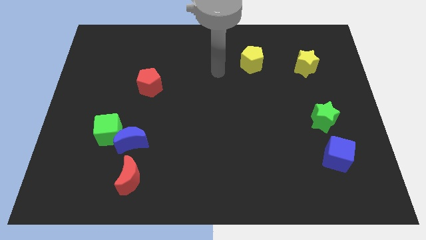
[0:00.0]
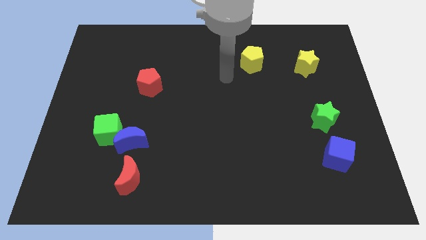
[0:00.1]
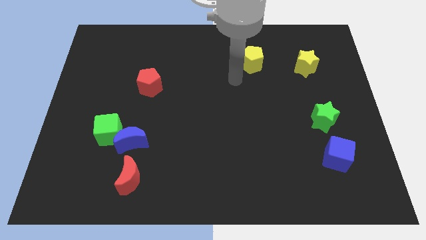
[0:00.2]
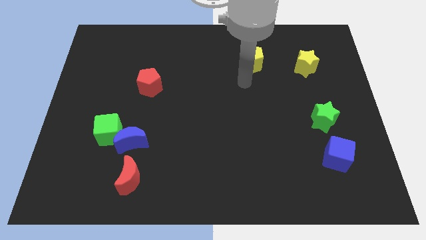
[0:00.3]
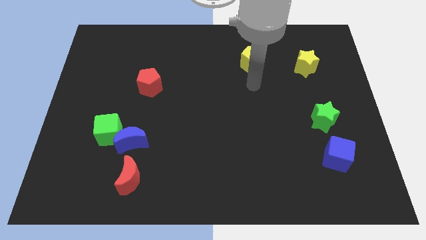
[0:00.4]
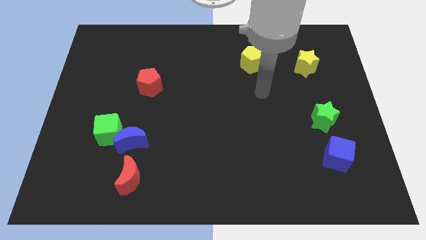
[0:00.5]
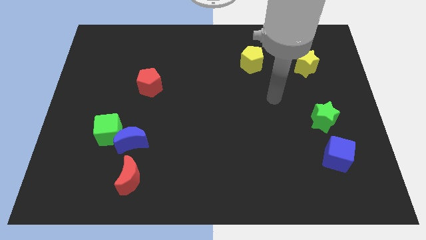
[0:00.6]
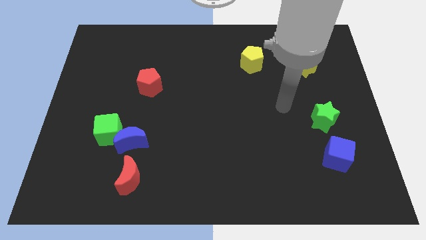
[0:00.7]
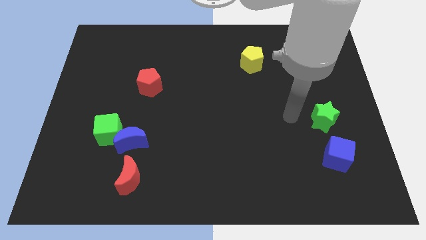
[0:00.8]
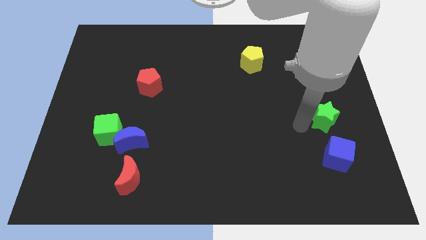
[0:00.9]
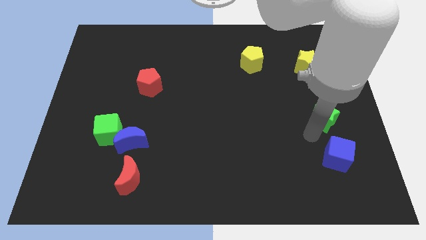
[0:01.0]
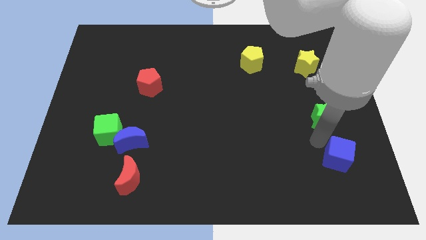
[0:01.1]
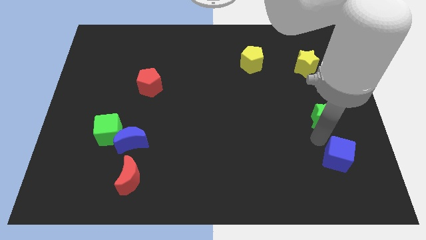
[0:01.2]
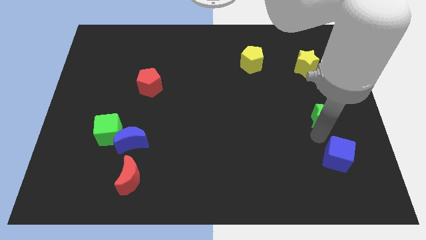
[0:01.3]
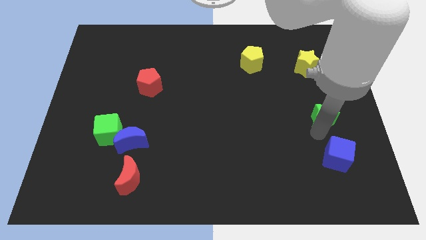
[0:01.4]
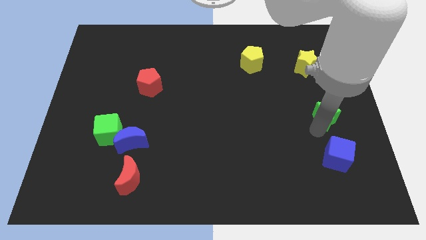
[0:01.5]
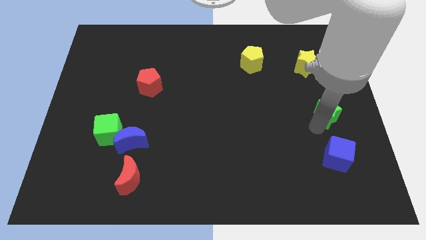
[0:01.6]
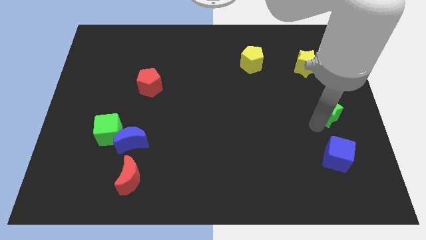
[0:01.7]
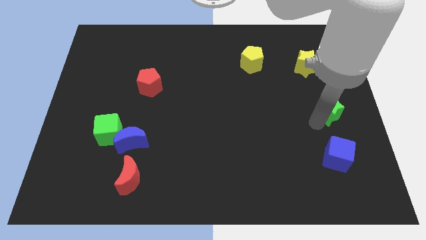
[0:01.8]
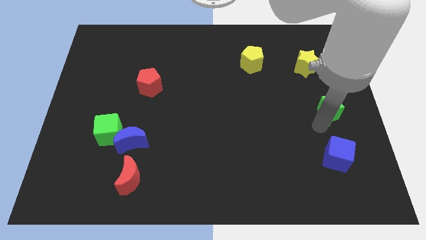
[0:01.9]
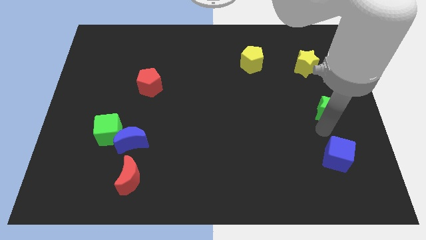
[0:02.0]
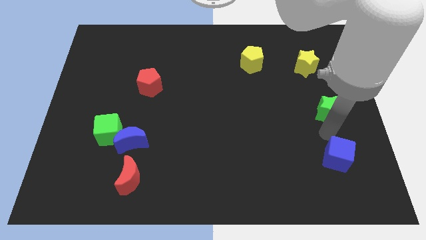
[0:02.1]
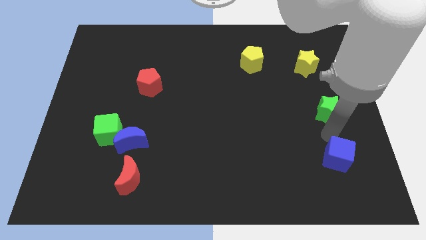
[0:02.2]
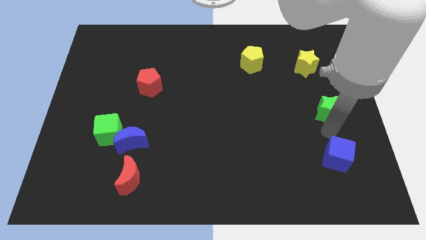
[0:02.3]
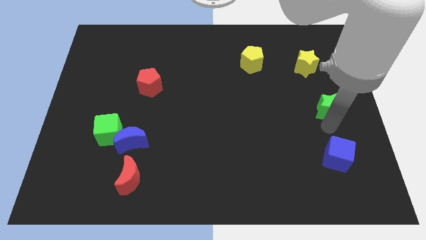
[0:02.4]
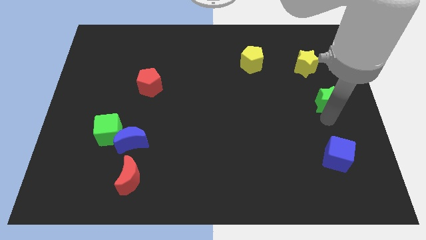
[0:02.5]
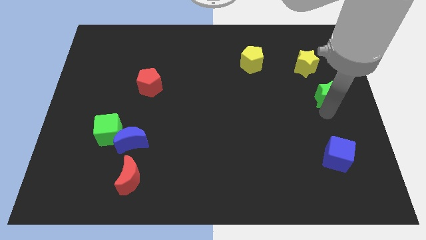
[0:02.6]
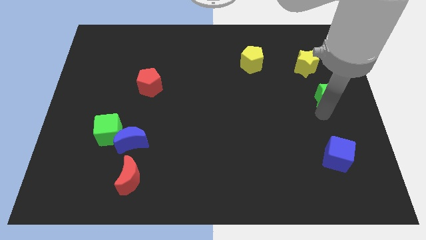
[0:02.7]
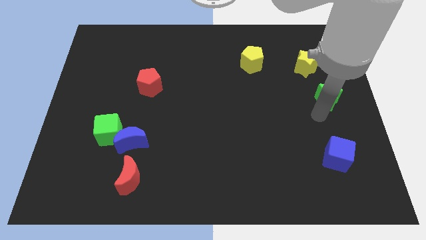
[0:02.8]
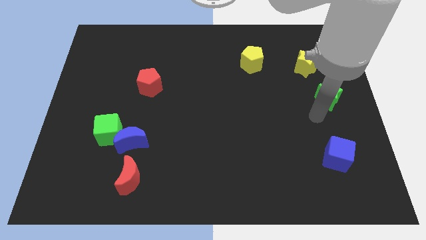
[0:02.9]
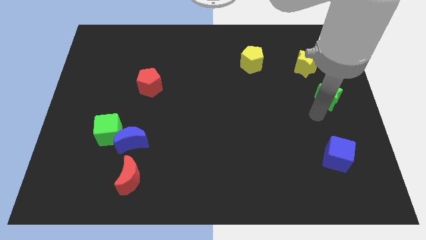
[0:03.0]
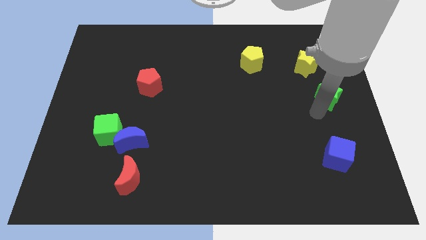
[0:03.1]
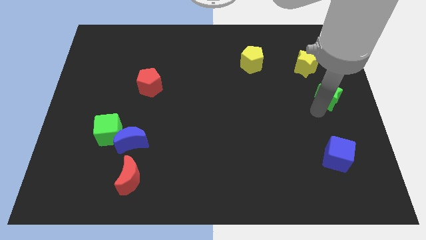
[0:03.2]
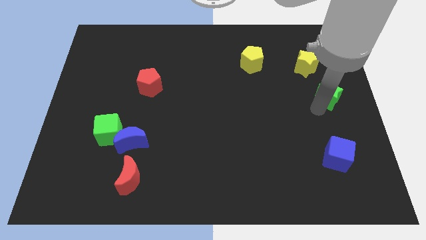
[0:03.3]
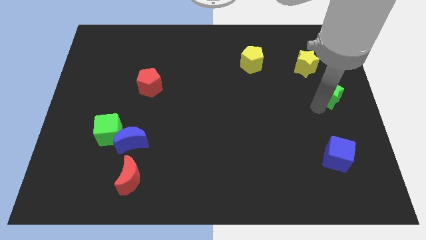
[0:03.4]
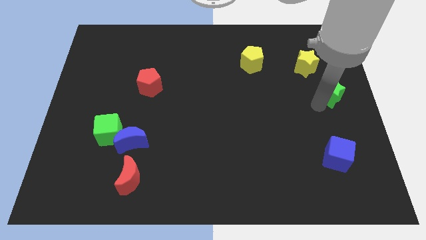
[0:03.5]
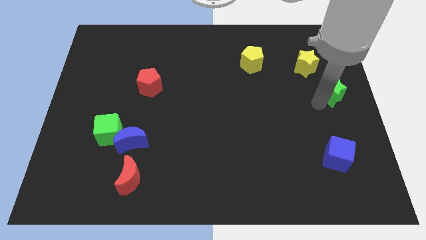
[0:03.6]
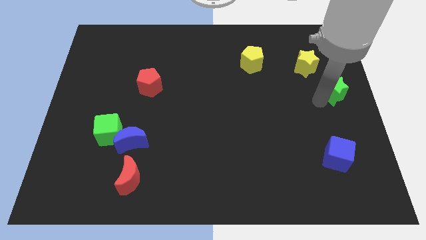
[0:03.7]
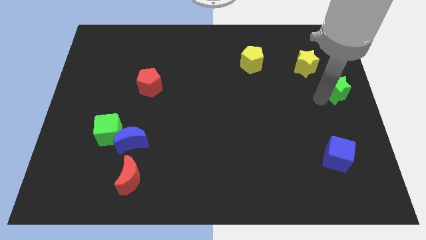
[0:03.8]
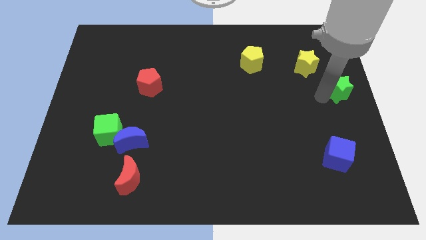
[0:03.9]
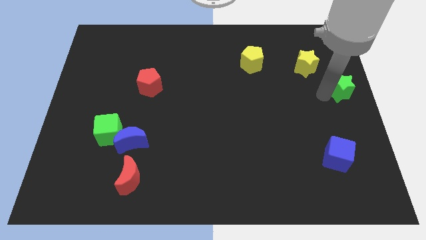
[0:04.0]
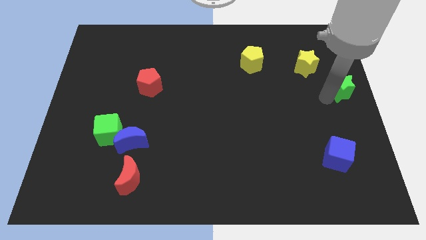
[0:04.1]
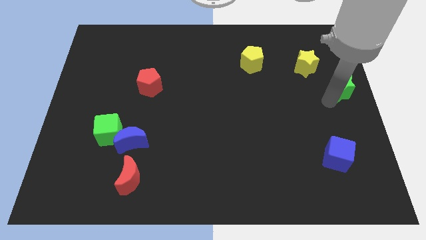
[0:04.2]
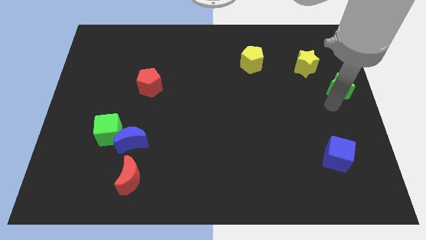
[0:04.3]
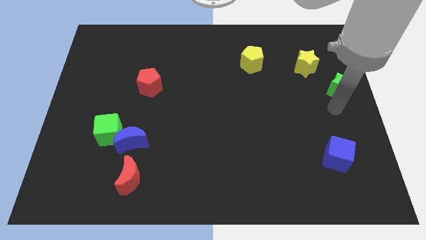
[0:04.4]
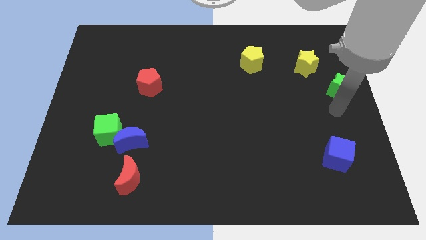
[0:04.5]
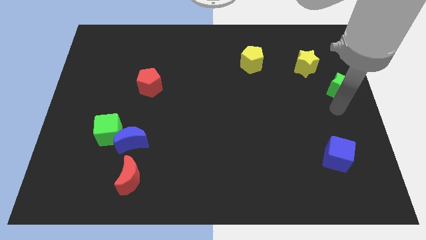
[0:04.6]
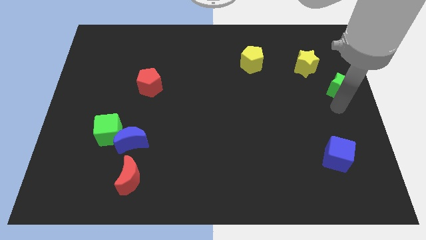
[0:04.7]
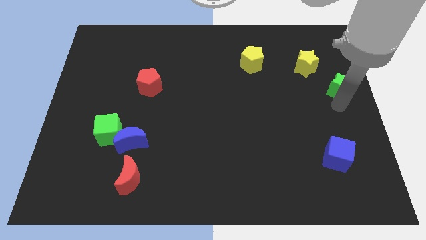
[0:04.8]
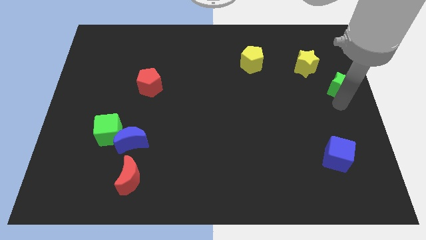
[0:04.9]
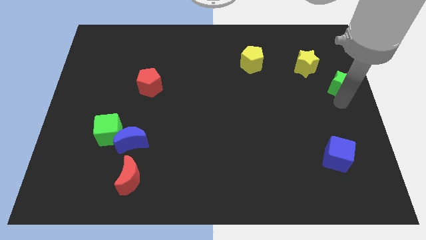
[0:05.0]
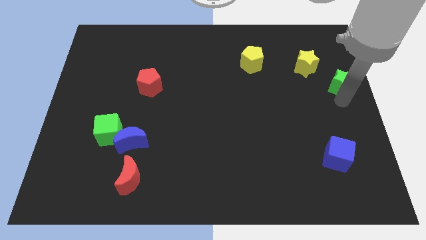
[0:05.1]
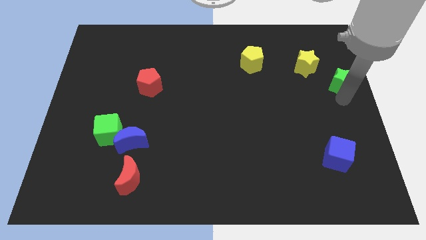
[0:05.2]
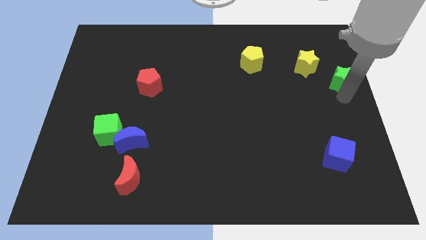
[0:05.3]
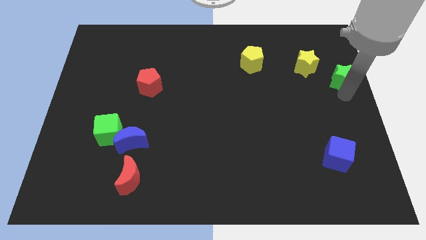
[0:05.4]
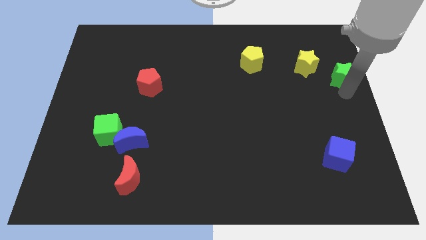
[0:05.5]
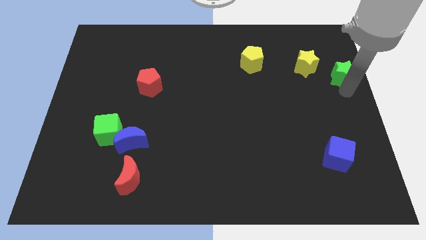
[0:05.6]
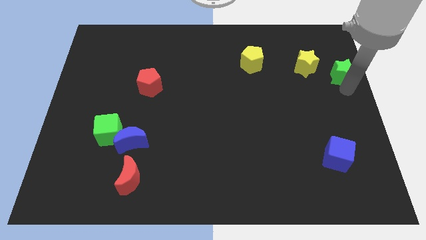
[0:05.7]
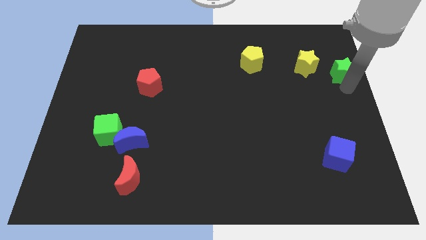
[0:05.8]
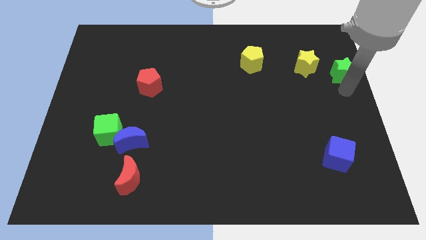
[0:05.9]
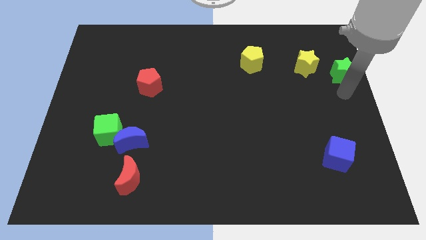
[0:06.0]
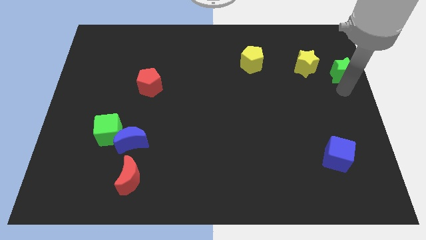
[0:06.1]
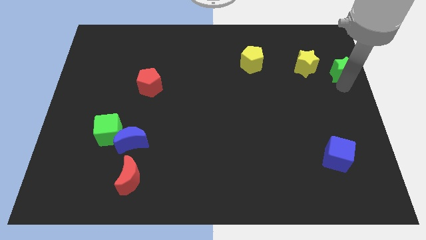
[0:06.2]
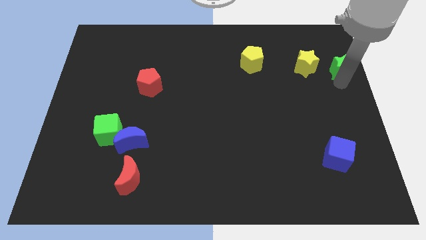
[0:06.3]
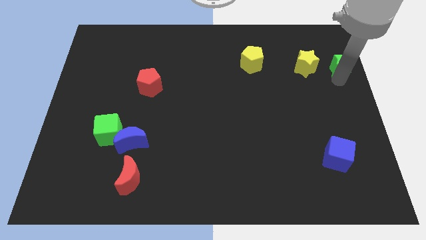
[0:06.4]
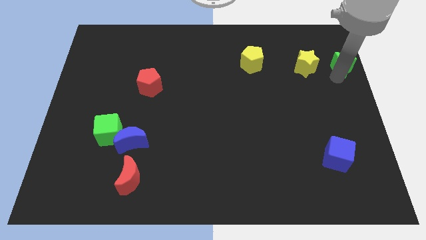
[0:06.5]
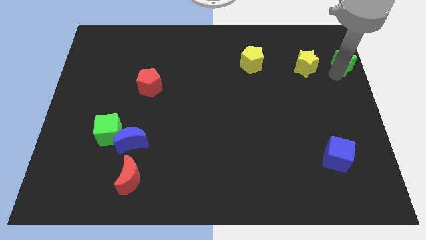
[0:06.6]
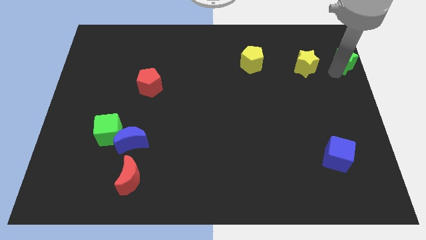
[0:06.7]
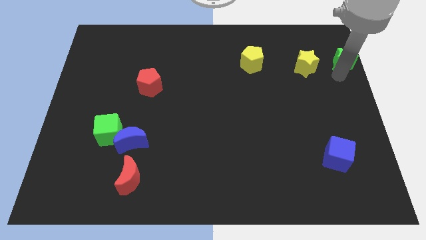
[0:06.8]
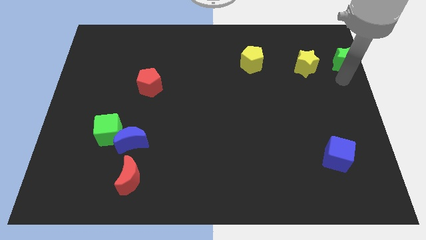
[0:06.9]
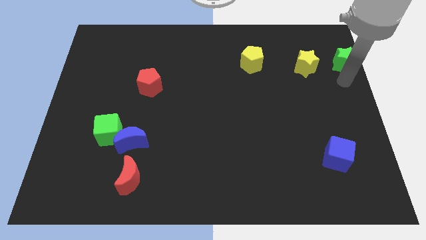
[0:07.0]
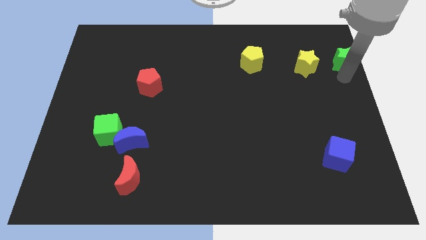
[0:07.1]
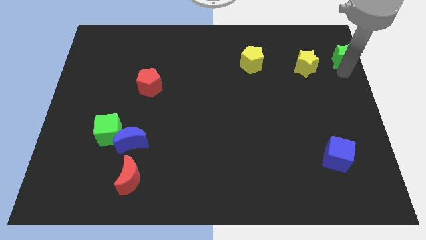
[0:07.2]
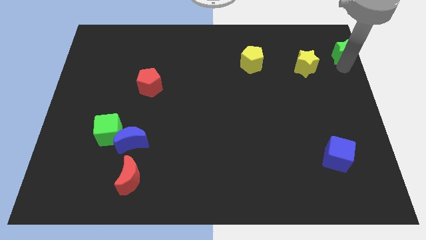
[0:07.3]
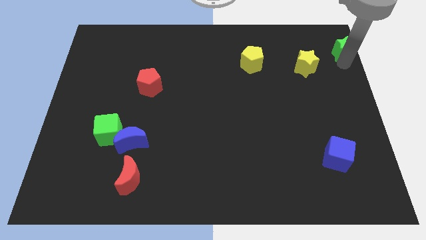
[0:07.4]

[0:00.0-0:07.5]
slide the green star to the top right corner
